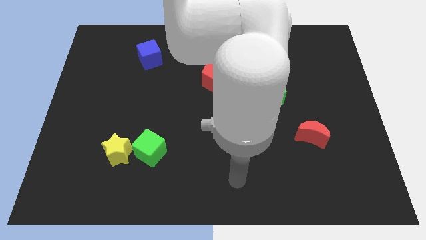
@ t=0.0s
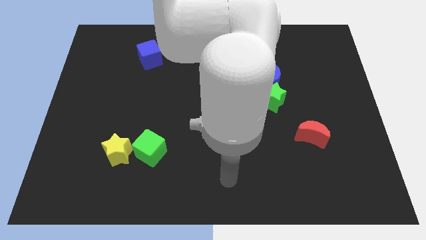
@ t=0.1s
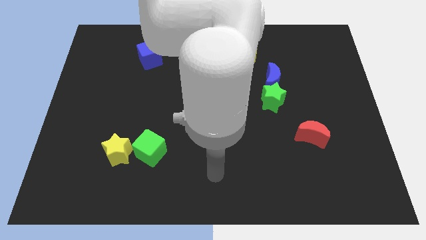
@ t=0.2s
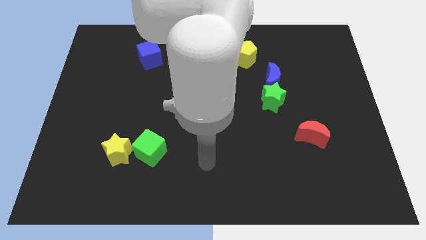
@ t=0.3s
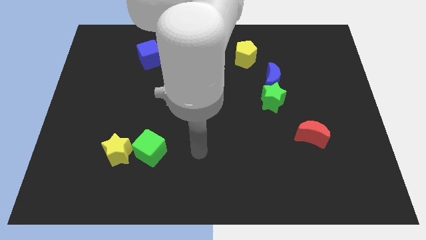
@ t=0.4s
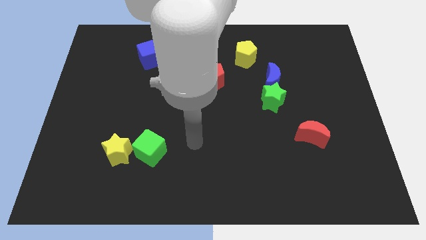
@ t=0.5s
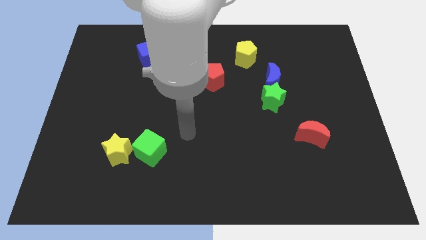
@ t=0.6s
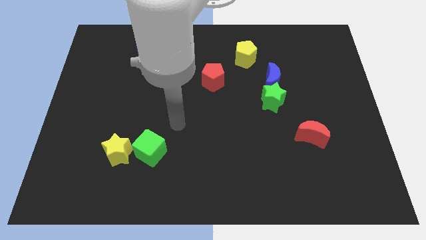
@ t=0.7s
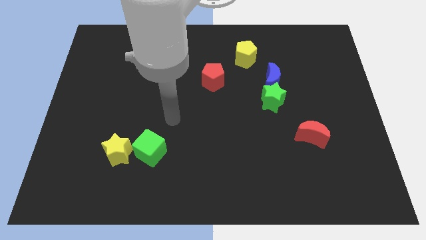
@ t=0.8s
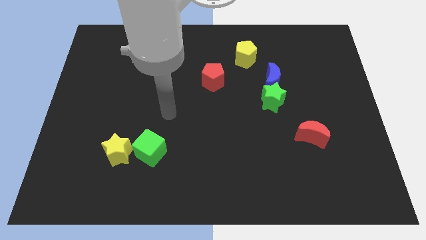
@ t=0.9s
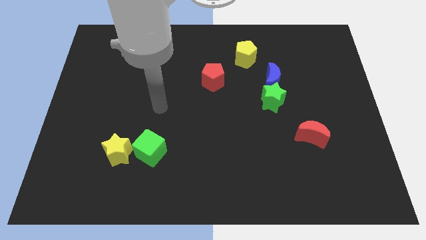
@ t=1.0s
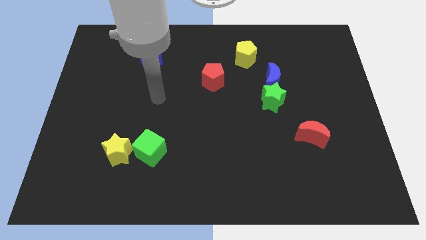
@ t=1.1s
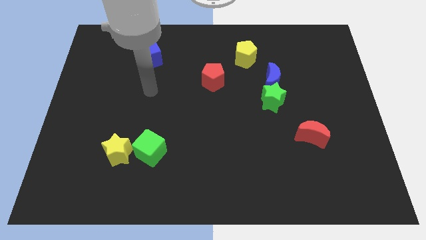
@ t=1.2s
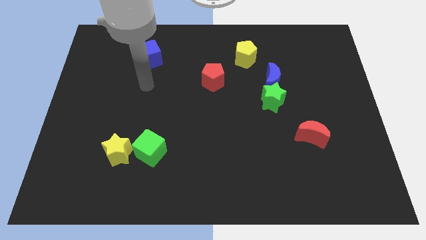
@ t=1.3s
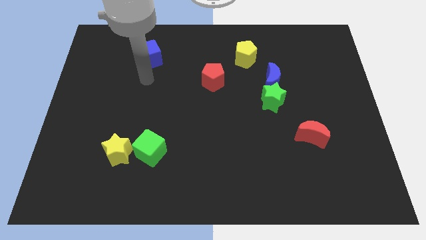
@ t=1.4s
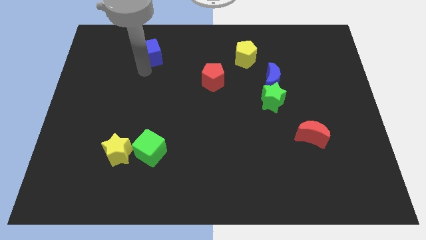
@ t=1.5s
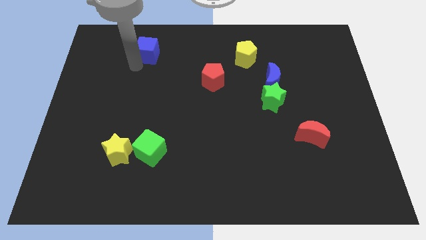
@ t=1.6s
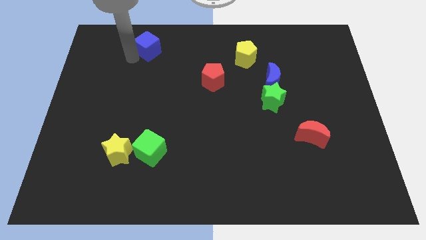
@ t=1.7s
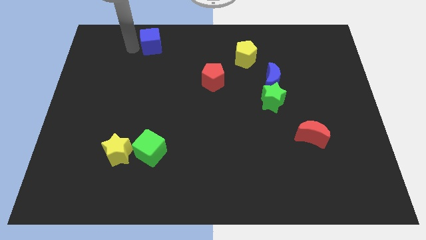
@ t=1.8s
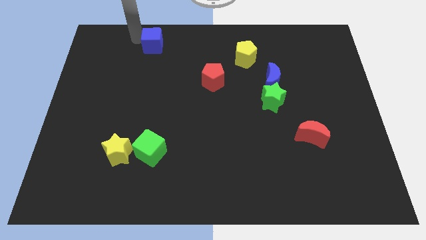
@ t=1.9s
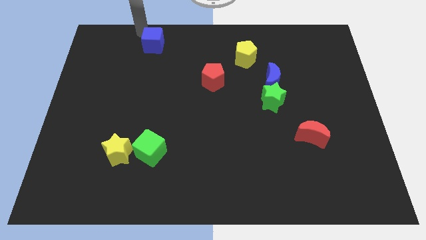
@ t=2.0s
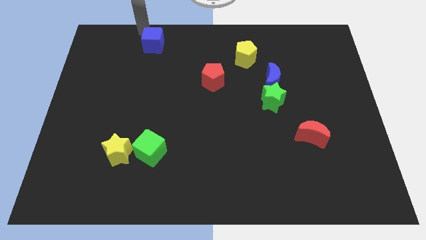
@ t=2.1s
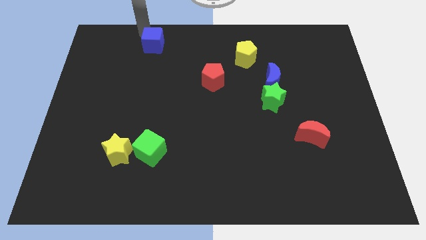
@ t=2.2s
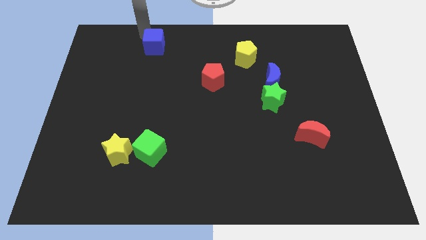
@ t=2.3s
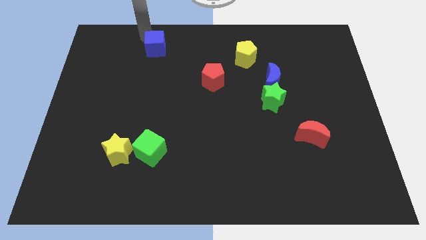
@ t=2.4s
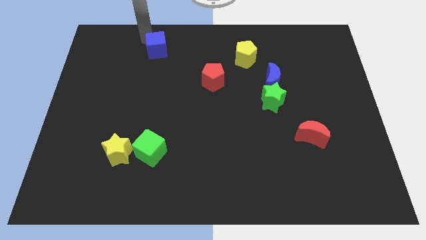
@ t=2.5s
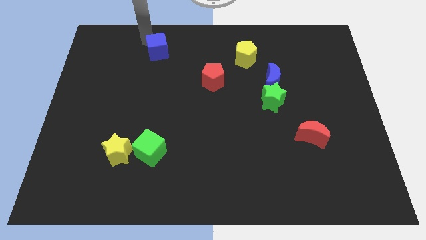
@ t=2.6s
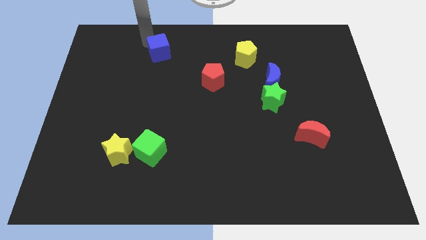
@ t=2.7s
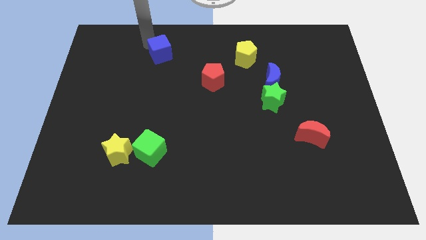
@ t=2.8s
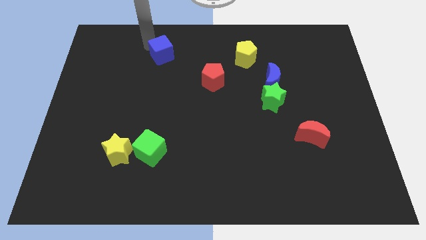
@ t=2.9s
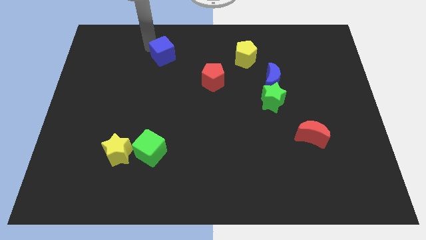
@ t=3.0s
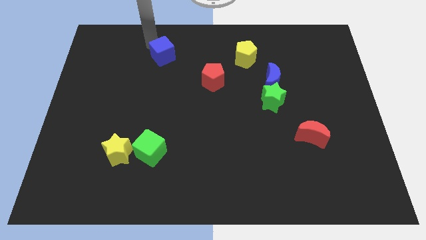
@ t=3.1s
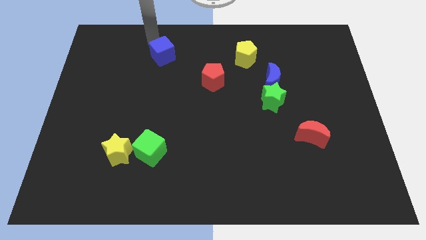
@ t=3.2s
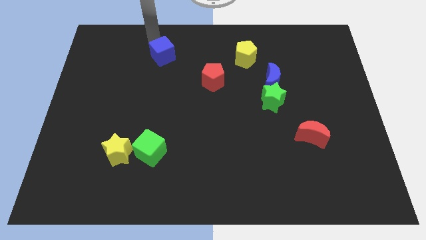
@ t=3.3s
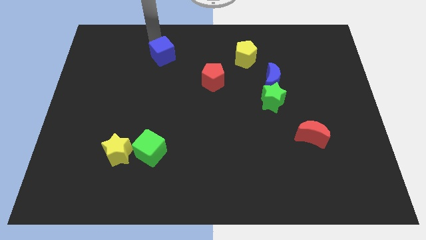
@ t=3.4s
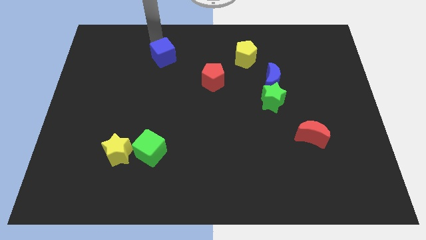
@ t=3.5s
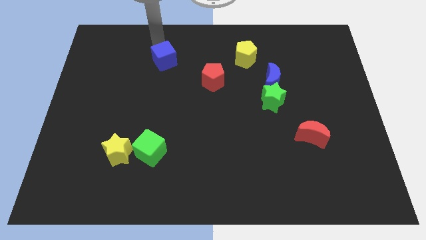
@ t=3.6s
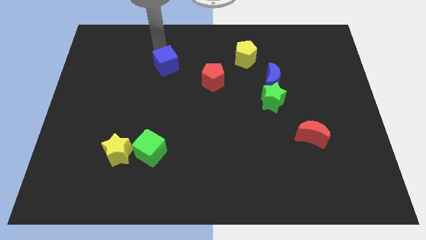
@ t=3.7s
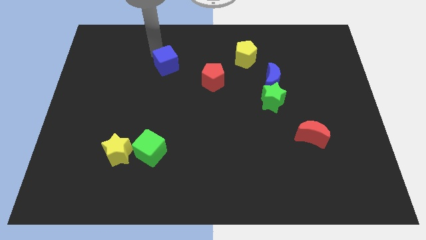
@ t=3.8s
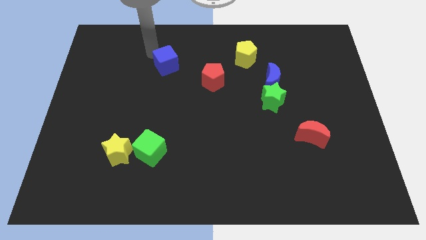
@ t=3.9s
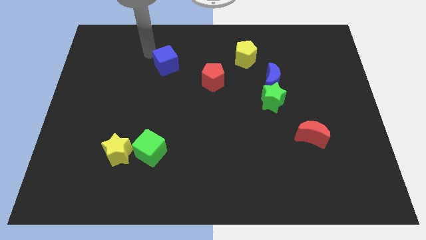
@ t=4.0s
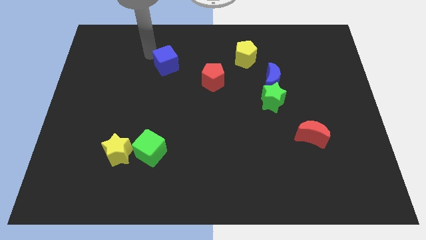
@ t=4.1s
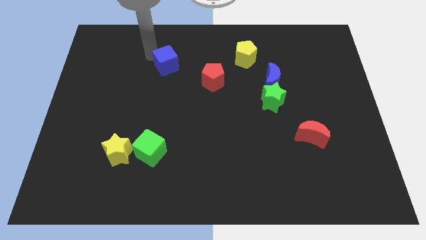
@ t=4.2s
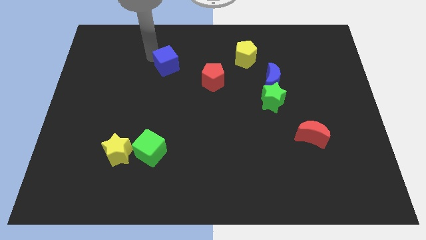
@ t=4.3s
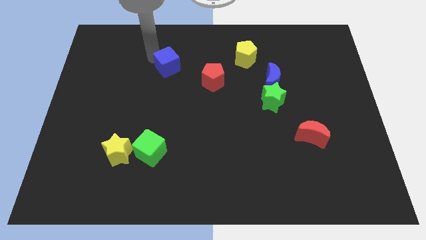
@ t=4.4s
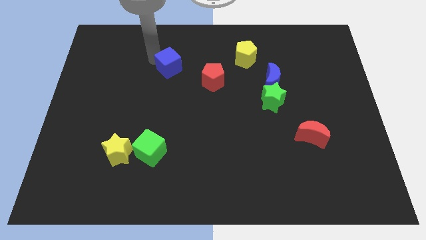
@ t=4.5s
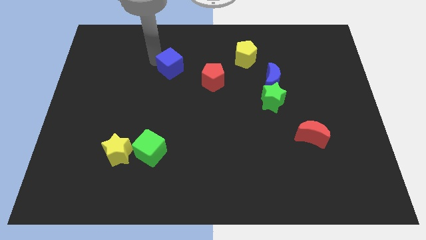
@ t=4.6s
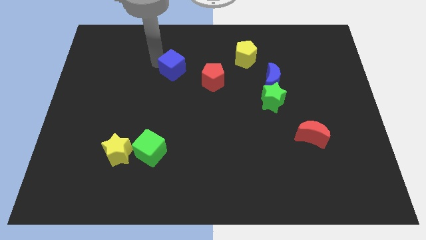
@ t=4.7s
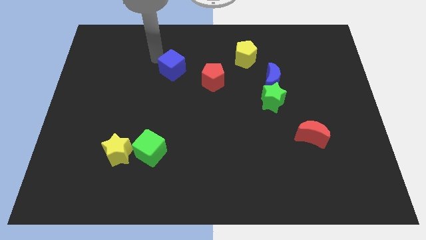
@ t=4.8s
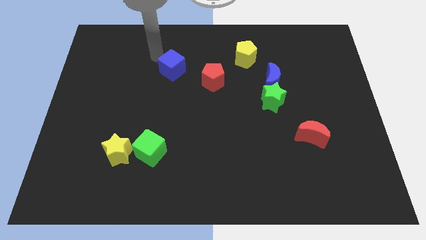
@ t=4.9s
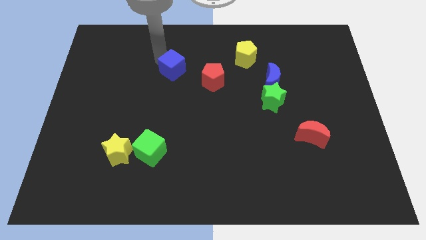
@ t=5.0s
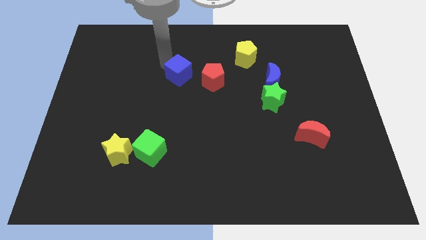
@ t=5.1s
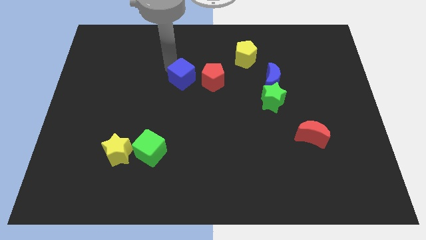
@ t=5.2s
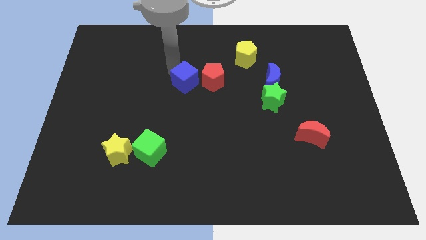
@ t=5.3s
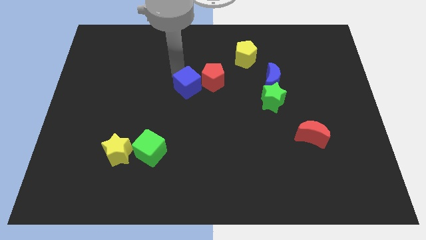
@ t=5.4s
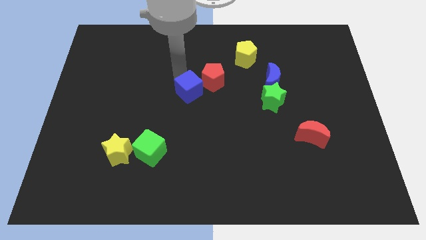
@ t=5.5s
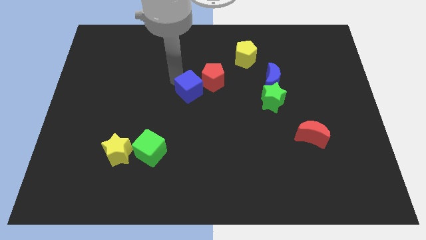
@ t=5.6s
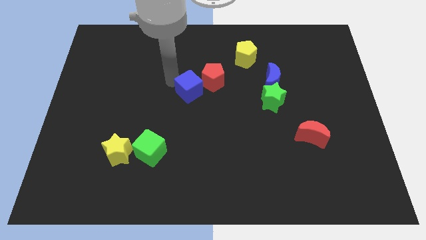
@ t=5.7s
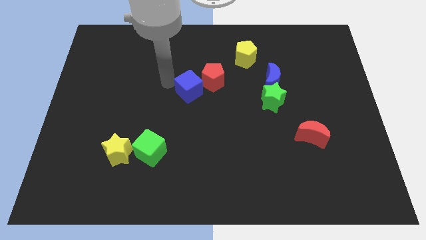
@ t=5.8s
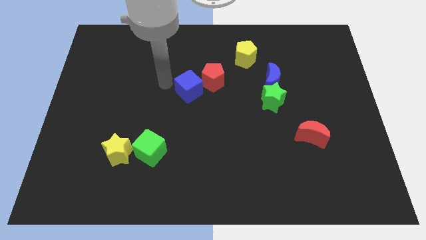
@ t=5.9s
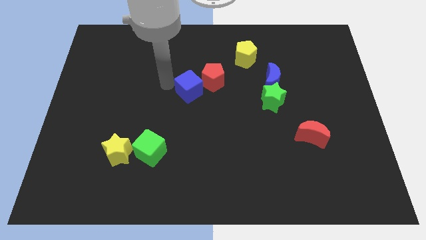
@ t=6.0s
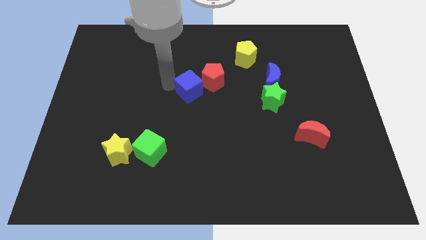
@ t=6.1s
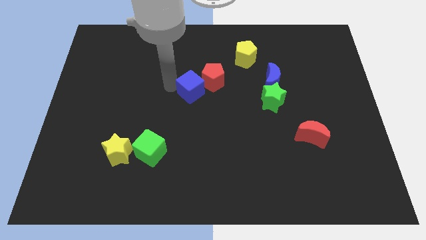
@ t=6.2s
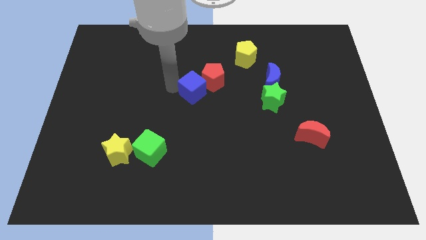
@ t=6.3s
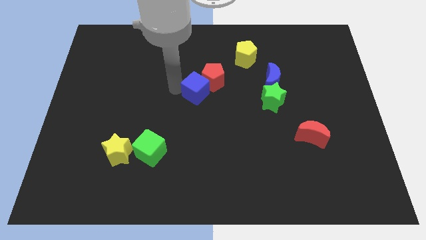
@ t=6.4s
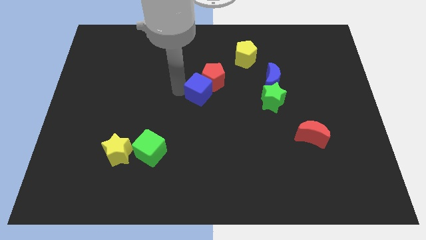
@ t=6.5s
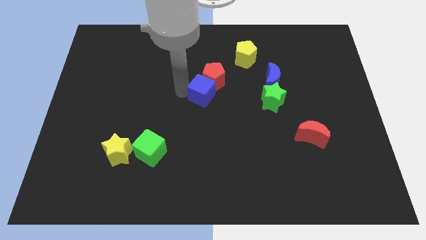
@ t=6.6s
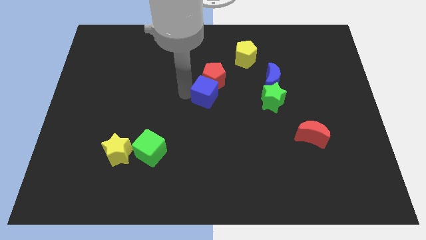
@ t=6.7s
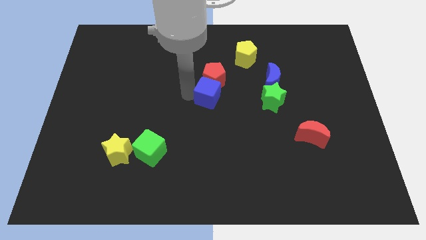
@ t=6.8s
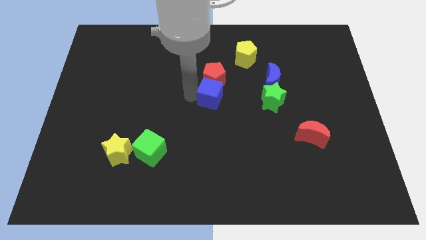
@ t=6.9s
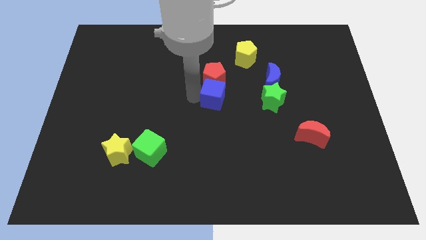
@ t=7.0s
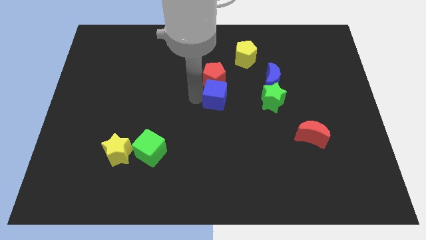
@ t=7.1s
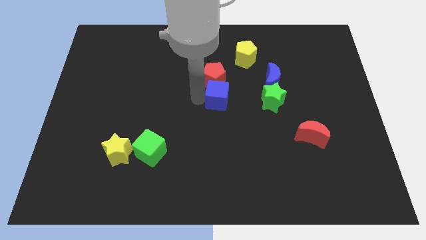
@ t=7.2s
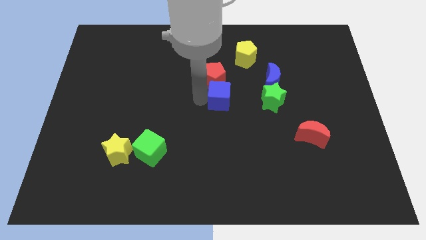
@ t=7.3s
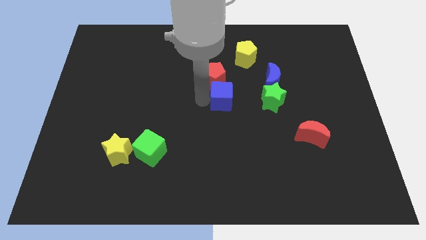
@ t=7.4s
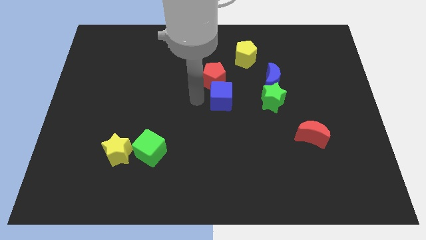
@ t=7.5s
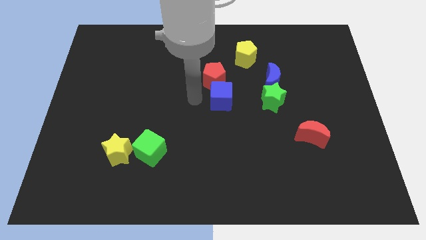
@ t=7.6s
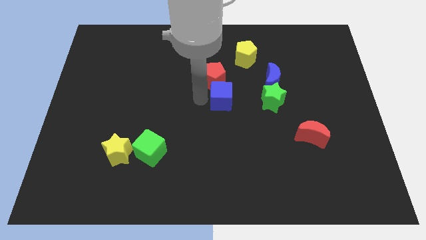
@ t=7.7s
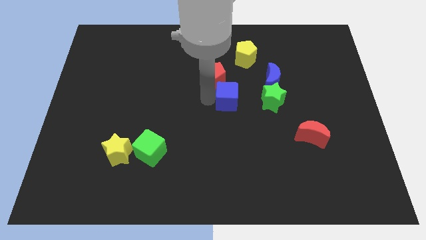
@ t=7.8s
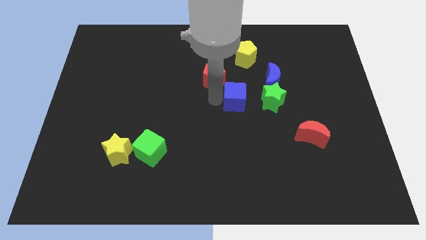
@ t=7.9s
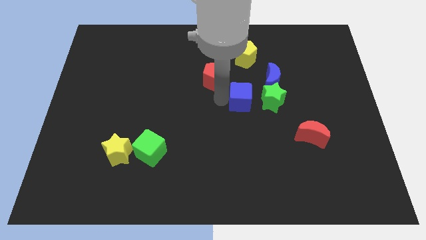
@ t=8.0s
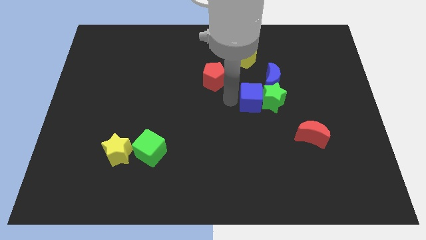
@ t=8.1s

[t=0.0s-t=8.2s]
push the blue cube to the green star
